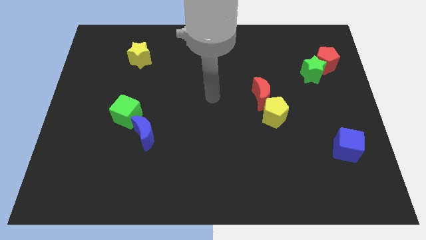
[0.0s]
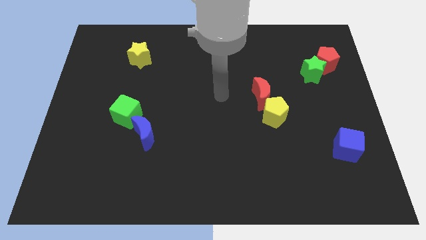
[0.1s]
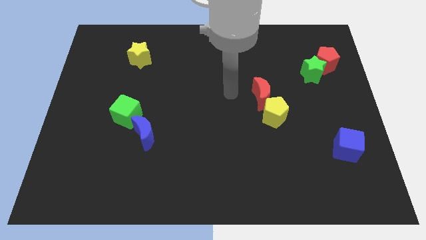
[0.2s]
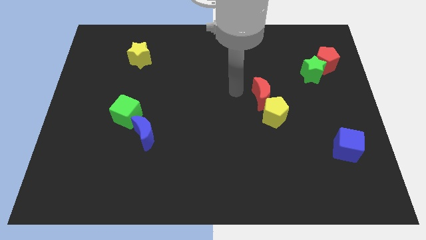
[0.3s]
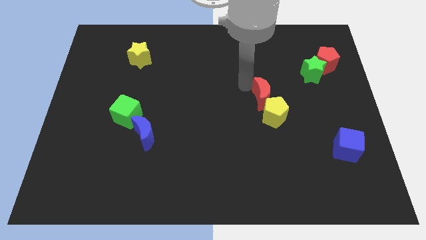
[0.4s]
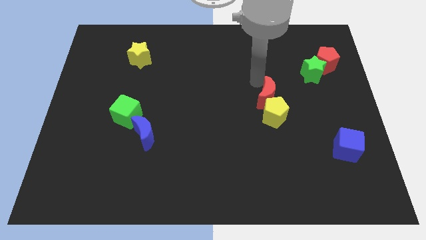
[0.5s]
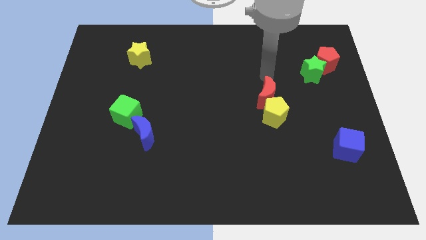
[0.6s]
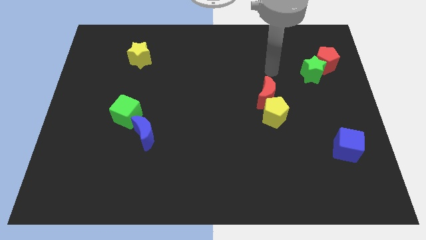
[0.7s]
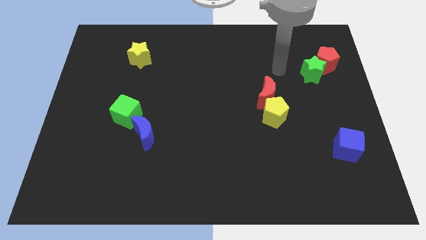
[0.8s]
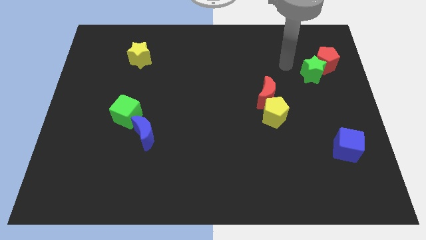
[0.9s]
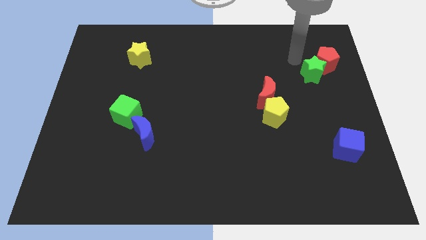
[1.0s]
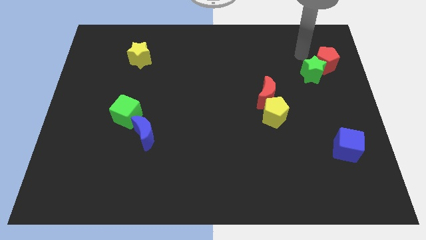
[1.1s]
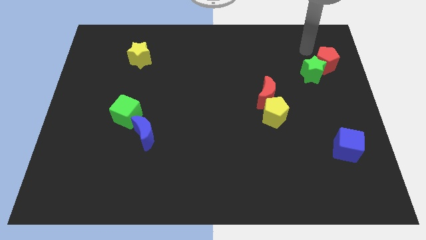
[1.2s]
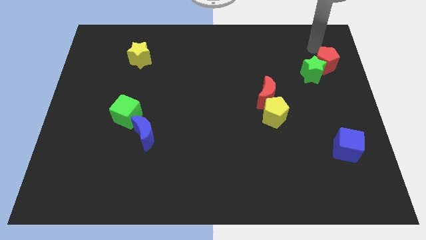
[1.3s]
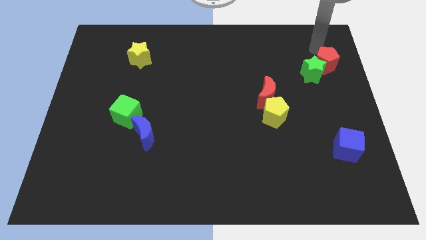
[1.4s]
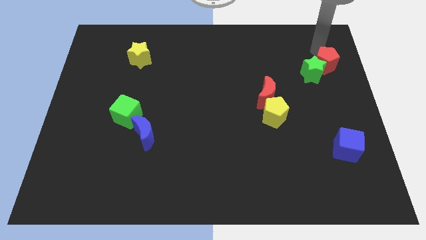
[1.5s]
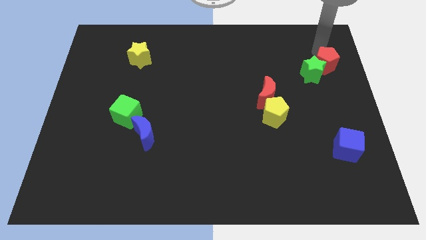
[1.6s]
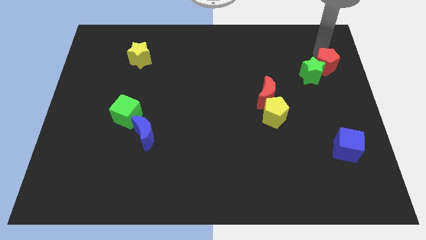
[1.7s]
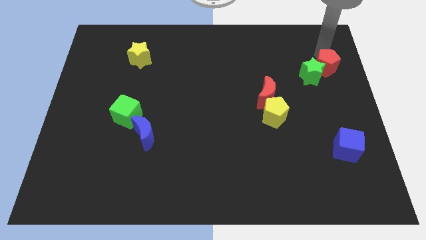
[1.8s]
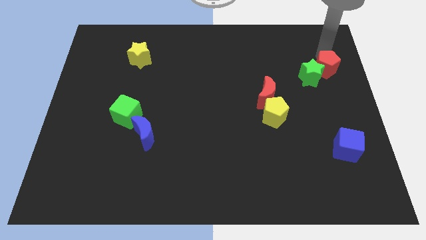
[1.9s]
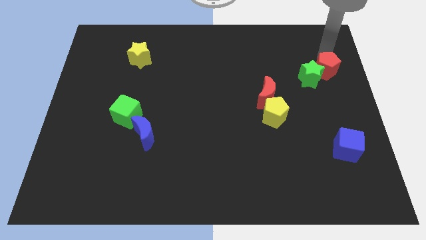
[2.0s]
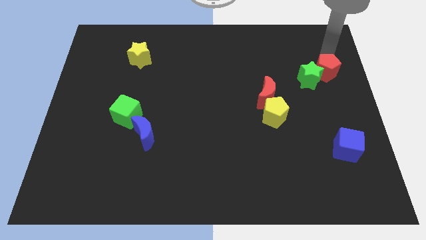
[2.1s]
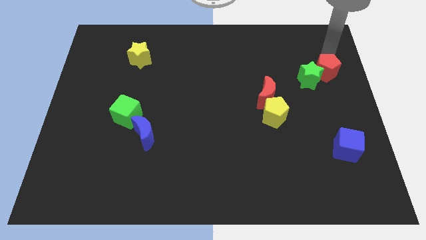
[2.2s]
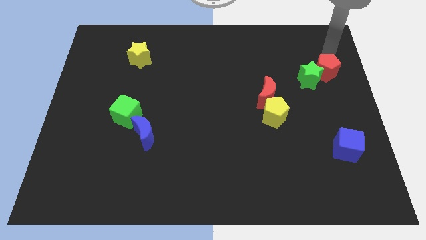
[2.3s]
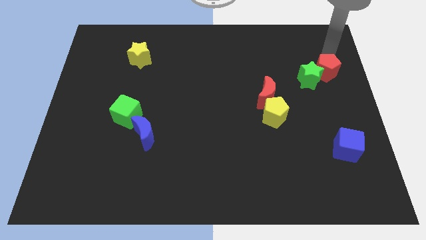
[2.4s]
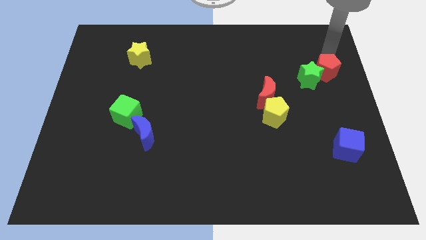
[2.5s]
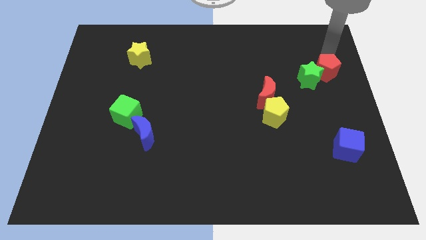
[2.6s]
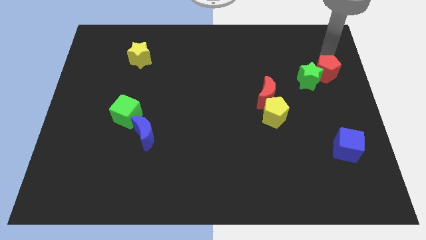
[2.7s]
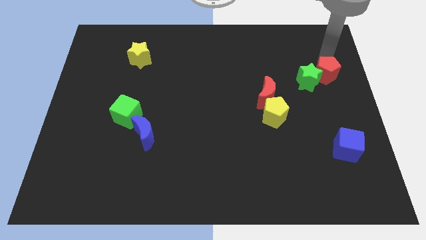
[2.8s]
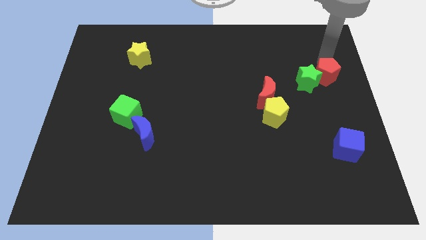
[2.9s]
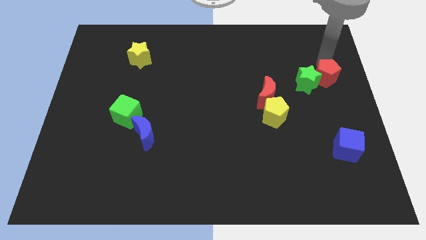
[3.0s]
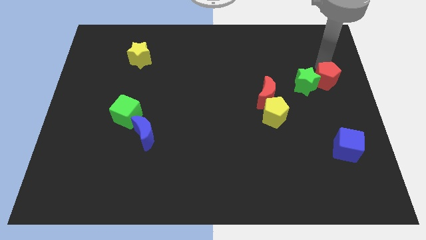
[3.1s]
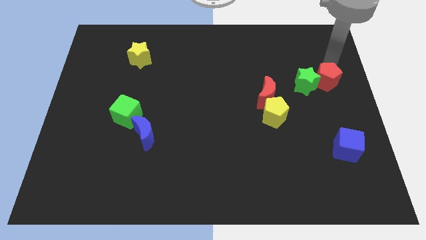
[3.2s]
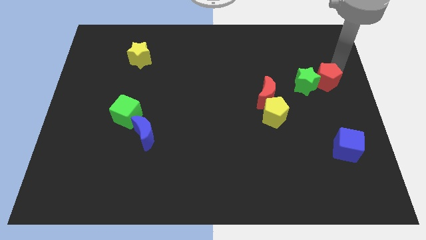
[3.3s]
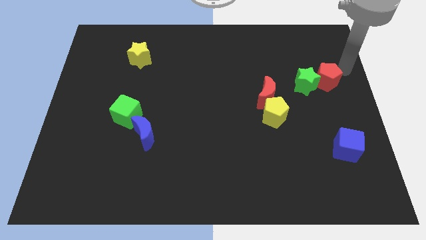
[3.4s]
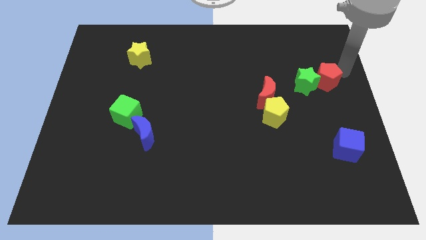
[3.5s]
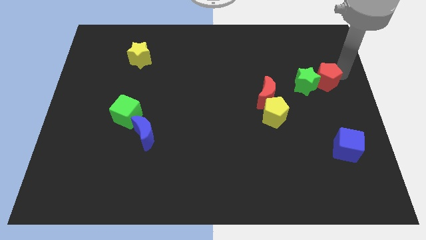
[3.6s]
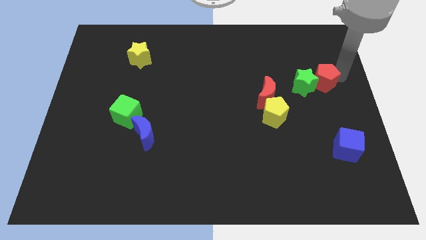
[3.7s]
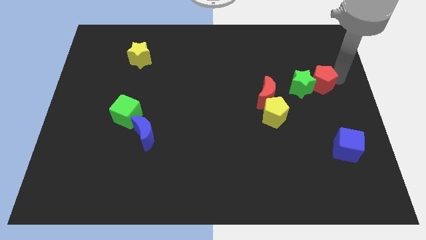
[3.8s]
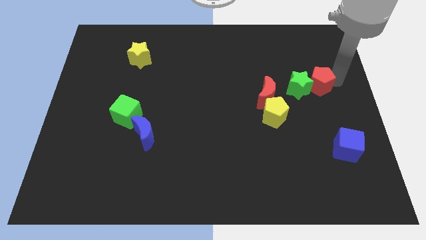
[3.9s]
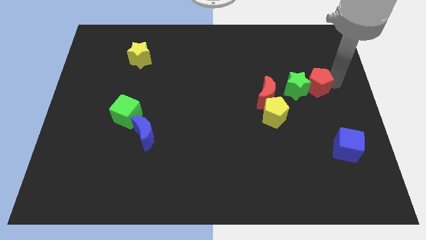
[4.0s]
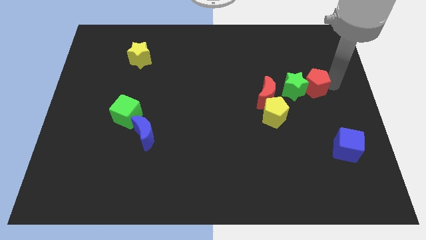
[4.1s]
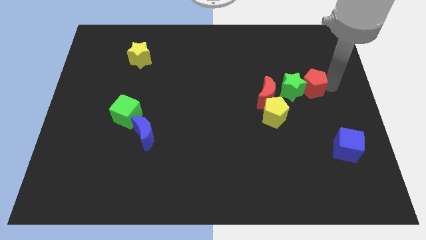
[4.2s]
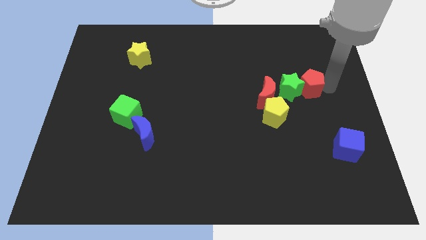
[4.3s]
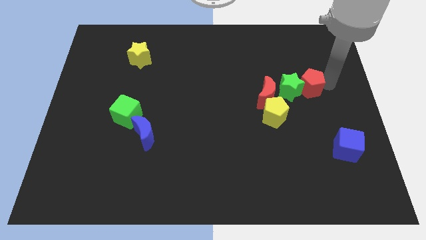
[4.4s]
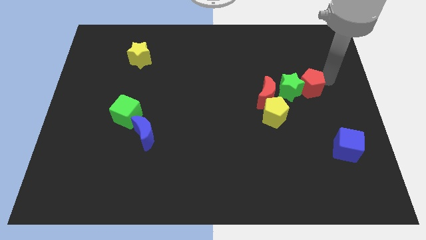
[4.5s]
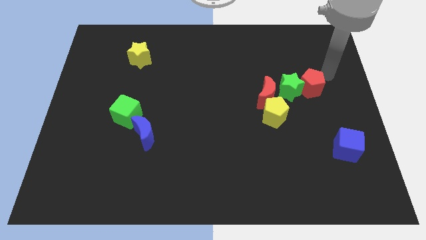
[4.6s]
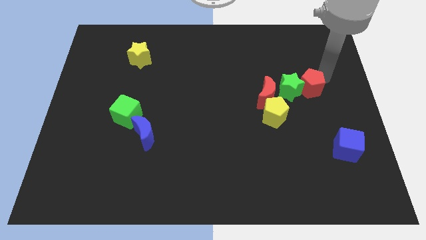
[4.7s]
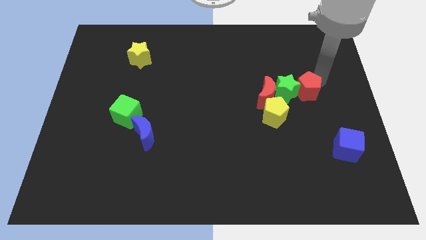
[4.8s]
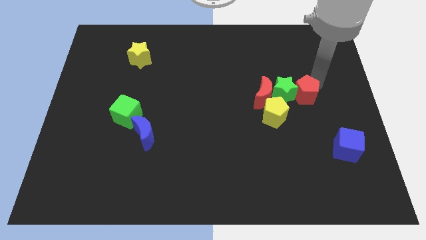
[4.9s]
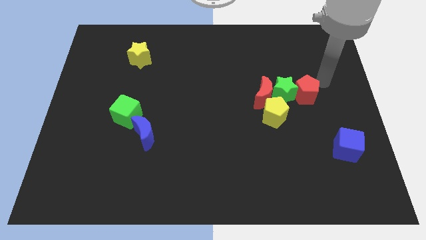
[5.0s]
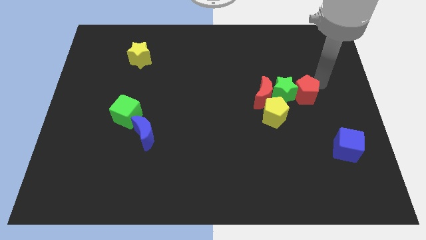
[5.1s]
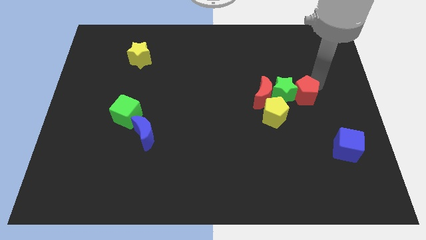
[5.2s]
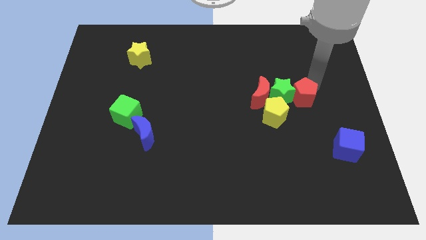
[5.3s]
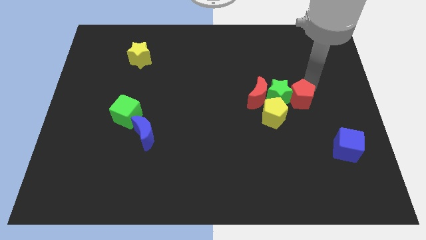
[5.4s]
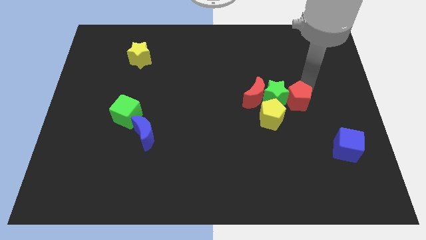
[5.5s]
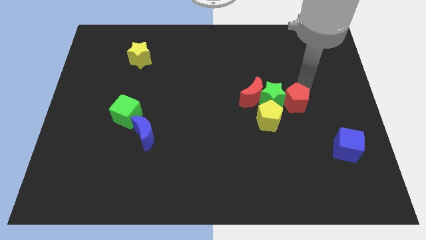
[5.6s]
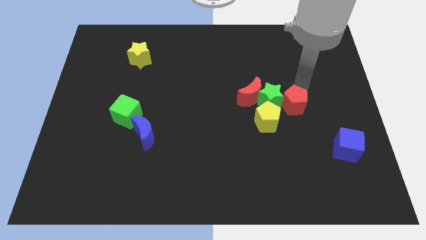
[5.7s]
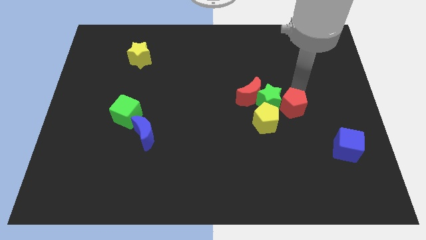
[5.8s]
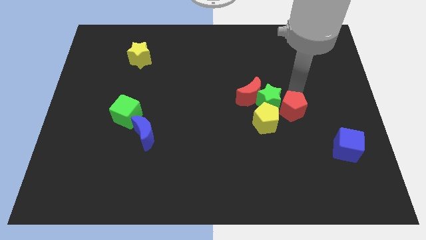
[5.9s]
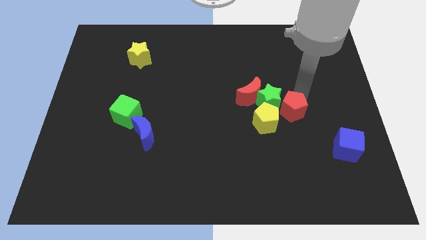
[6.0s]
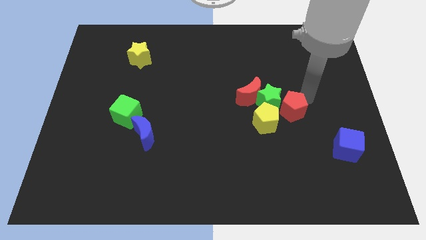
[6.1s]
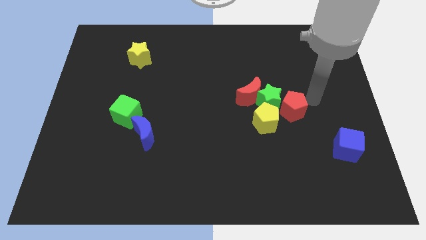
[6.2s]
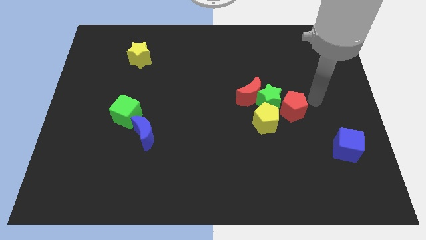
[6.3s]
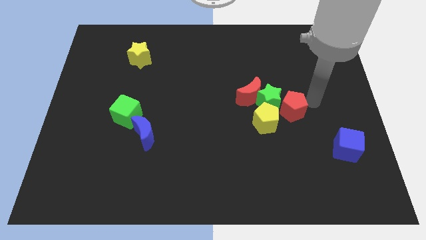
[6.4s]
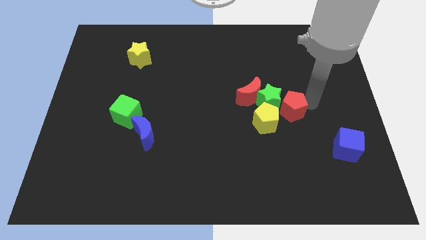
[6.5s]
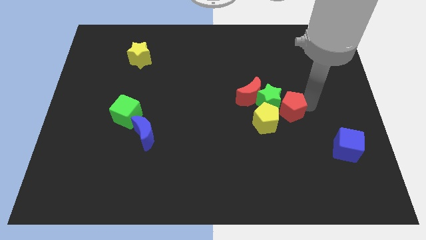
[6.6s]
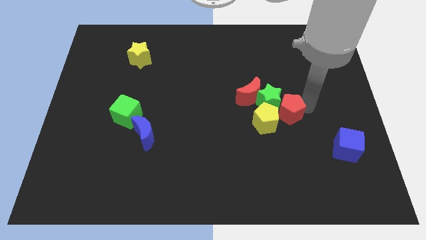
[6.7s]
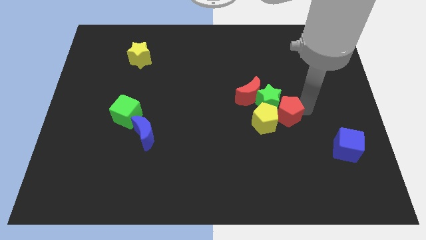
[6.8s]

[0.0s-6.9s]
push the red pentagon next to the yellow pentagon
